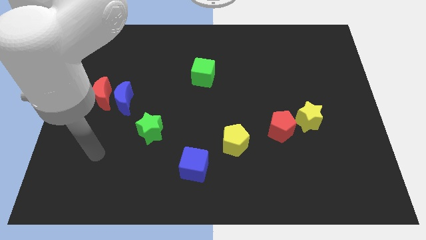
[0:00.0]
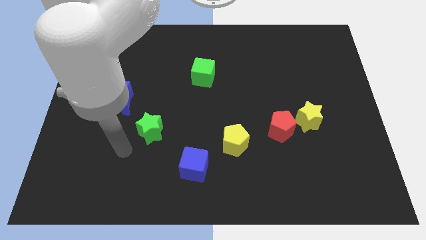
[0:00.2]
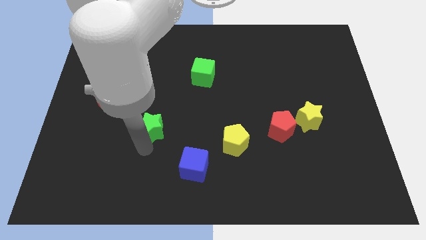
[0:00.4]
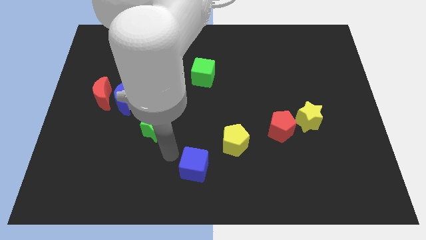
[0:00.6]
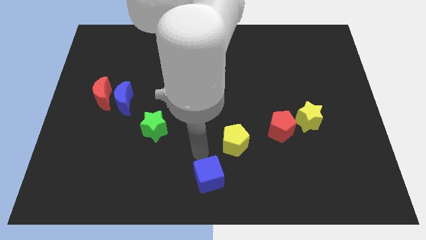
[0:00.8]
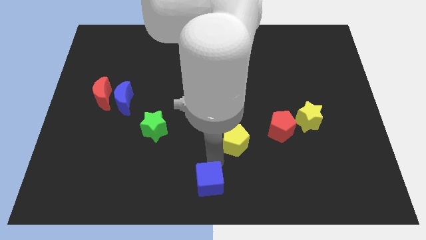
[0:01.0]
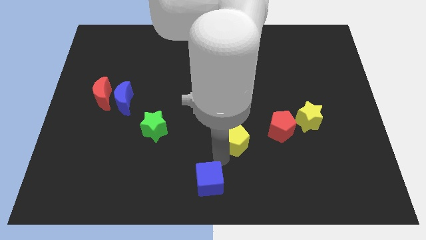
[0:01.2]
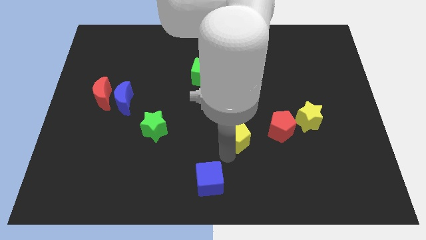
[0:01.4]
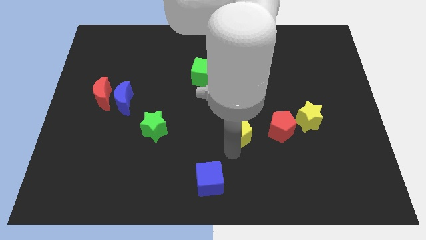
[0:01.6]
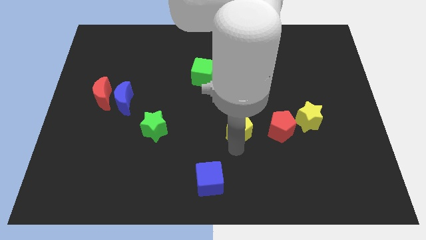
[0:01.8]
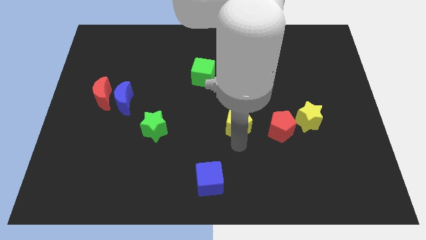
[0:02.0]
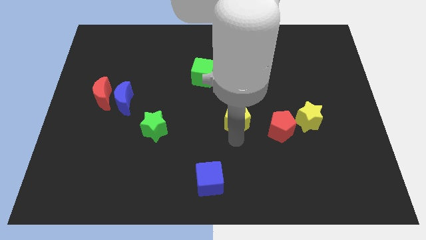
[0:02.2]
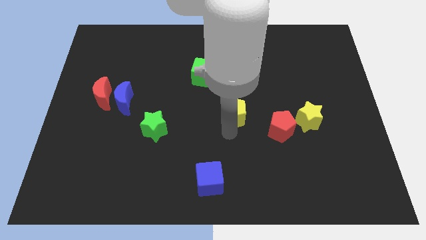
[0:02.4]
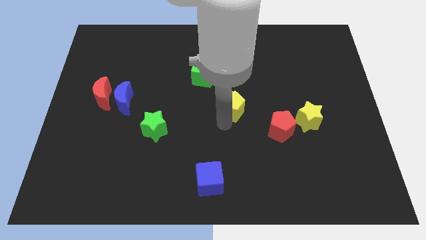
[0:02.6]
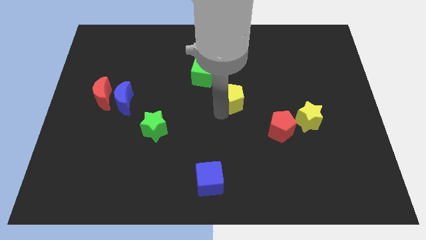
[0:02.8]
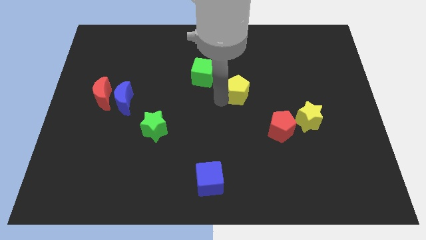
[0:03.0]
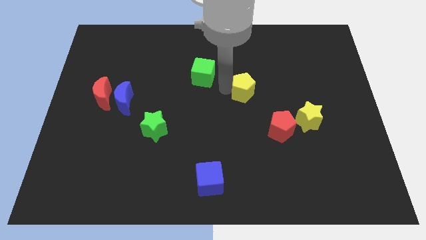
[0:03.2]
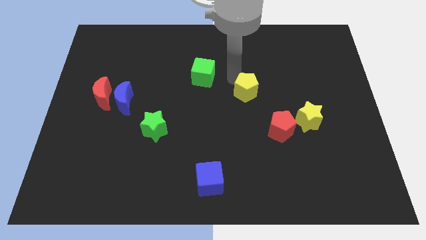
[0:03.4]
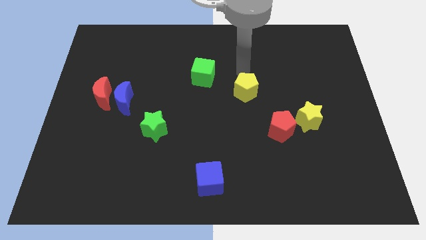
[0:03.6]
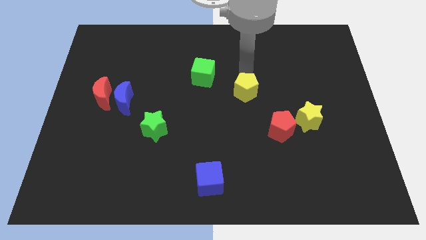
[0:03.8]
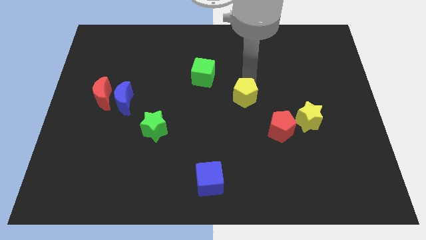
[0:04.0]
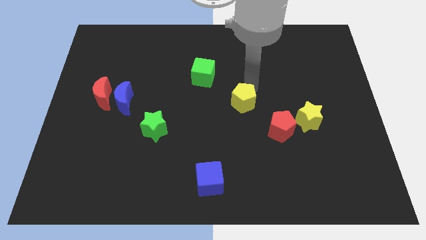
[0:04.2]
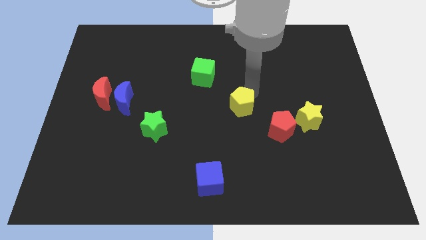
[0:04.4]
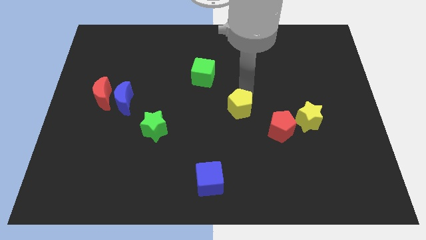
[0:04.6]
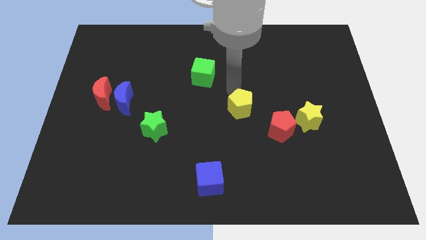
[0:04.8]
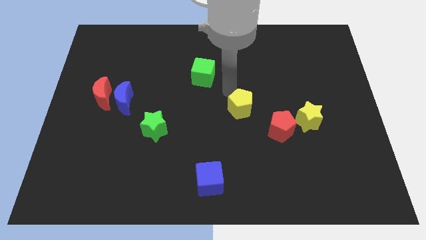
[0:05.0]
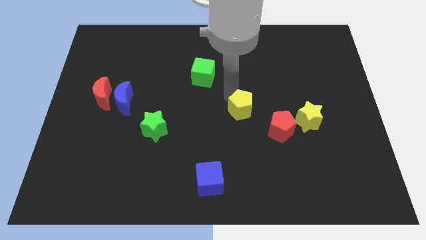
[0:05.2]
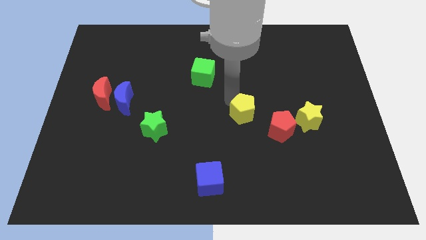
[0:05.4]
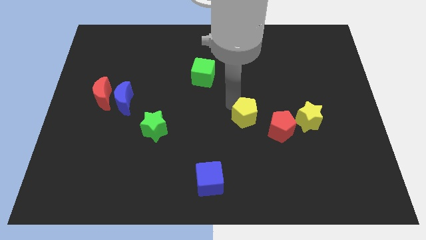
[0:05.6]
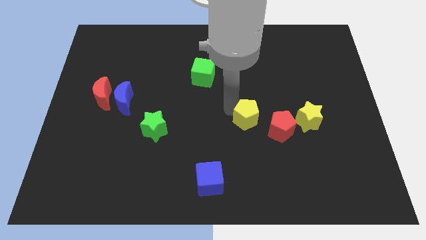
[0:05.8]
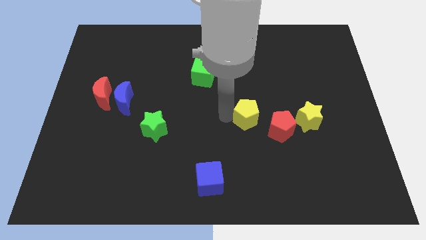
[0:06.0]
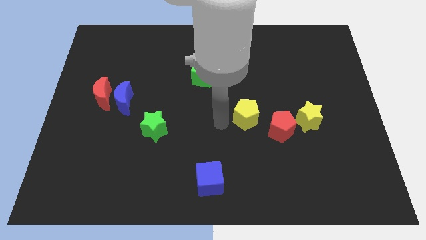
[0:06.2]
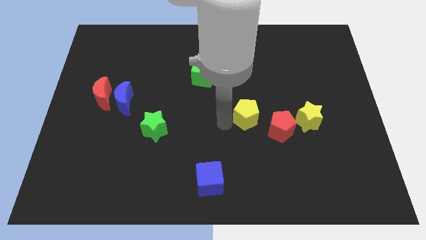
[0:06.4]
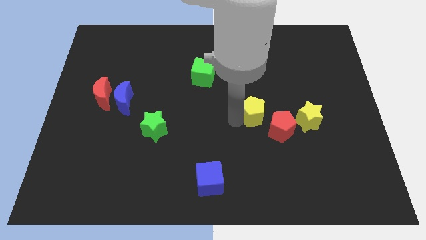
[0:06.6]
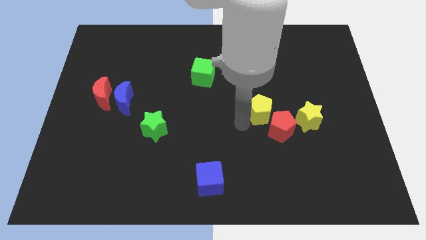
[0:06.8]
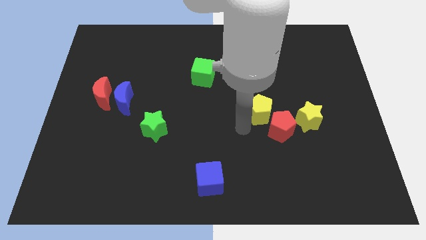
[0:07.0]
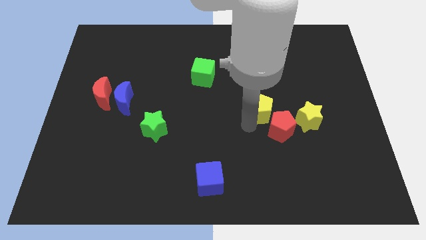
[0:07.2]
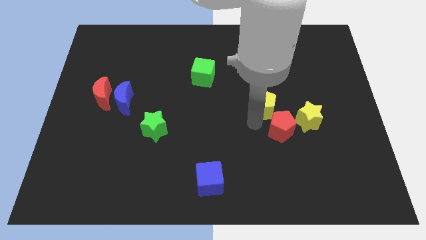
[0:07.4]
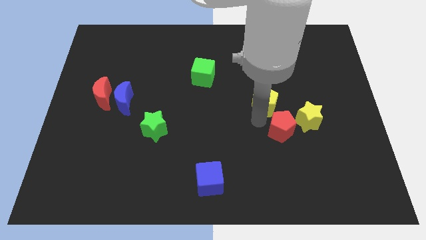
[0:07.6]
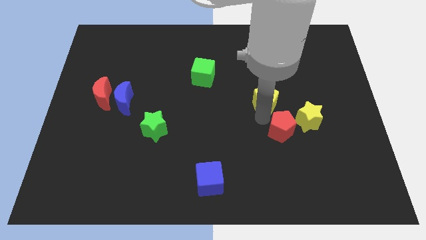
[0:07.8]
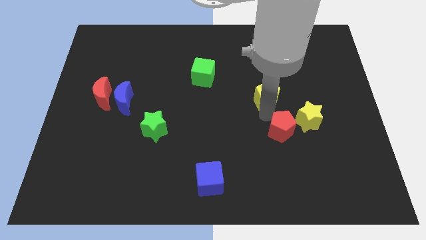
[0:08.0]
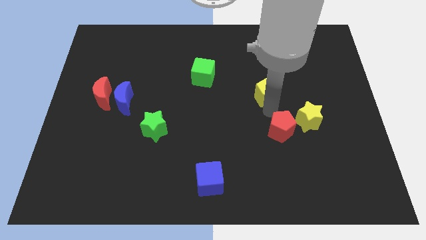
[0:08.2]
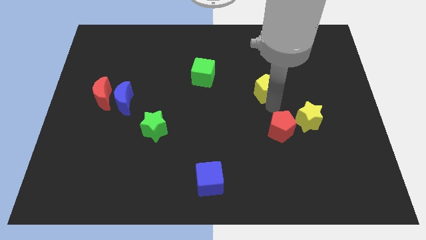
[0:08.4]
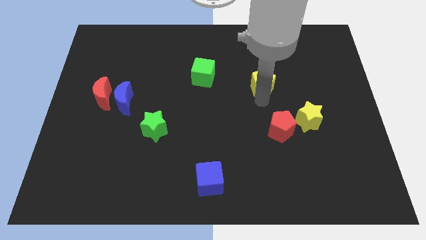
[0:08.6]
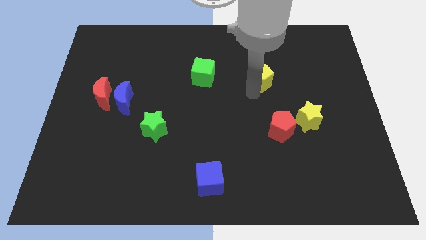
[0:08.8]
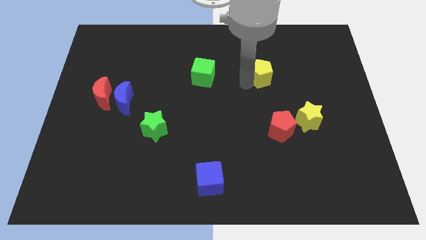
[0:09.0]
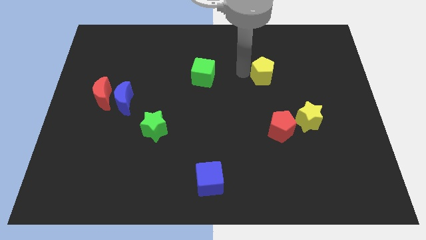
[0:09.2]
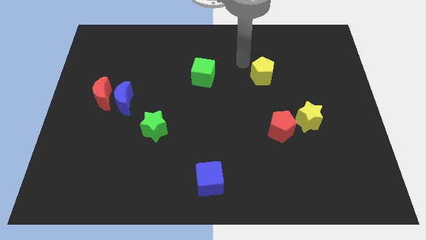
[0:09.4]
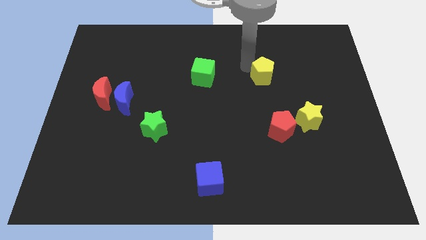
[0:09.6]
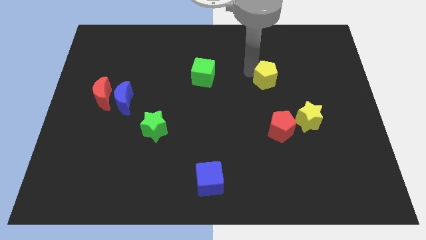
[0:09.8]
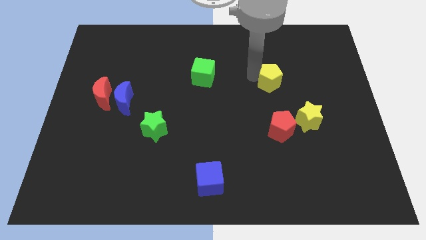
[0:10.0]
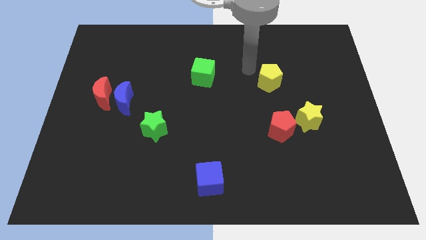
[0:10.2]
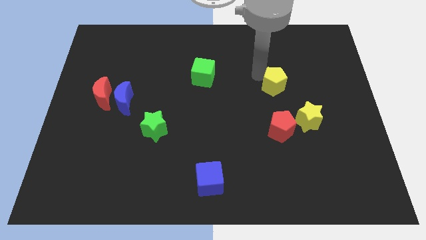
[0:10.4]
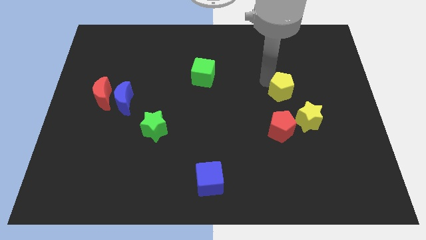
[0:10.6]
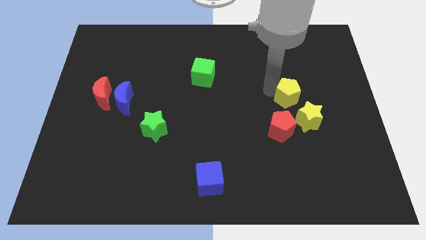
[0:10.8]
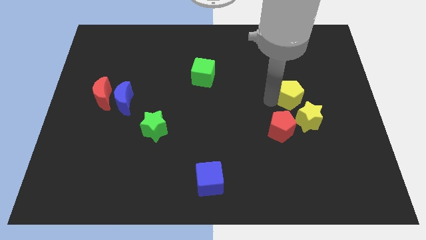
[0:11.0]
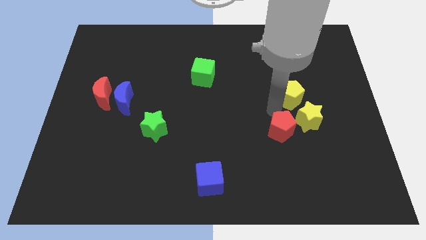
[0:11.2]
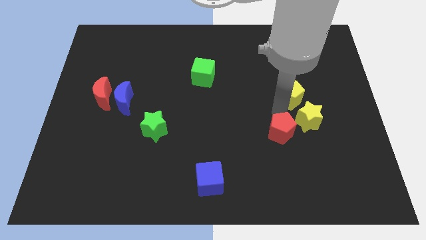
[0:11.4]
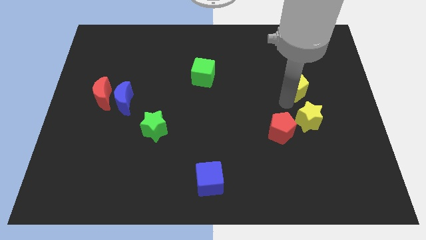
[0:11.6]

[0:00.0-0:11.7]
move the yellow pentagon up and to the right

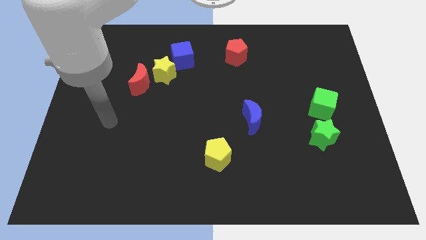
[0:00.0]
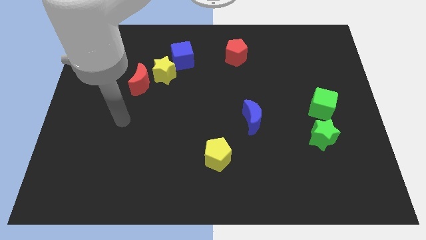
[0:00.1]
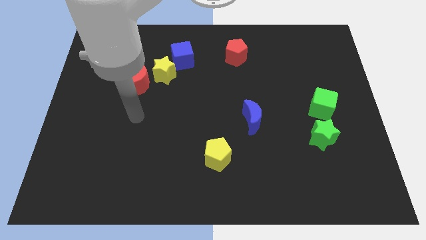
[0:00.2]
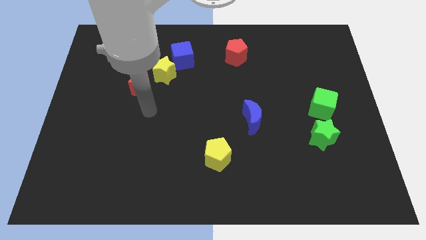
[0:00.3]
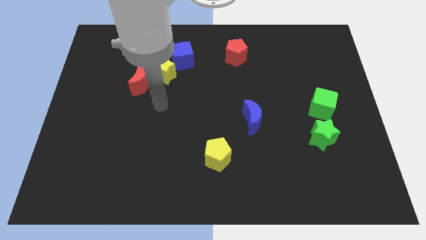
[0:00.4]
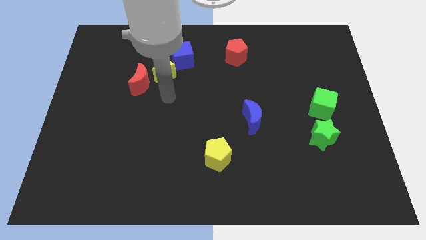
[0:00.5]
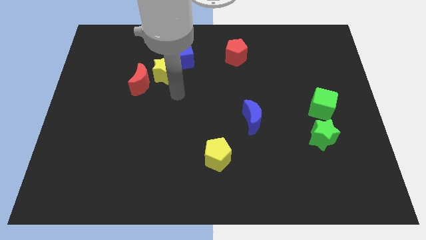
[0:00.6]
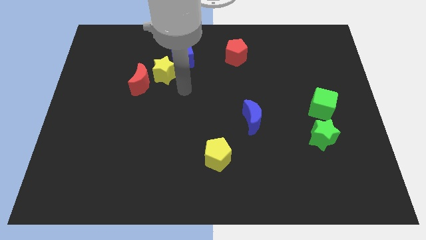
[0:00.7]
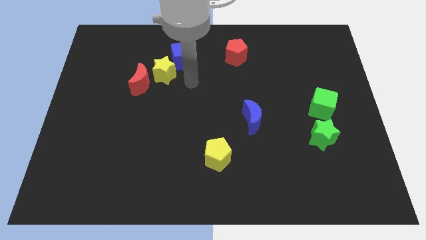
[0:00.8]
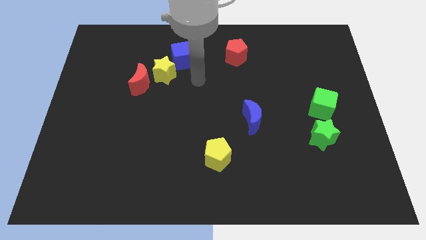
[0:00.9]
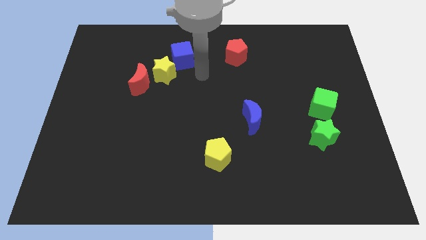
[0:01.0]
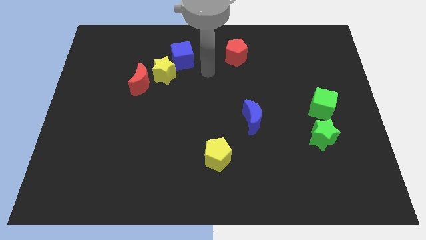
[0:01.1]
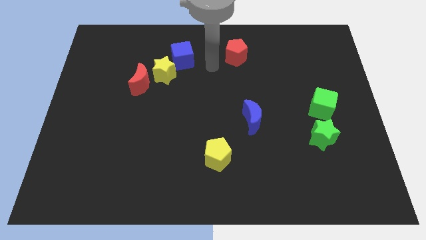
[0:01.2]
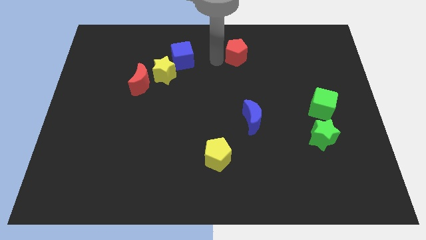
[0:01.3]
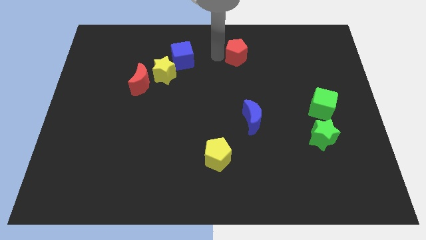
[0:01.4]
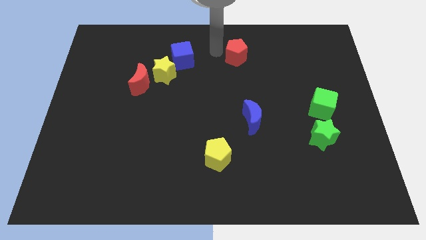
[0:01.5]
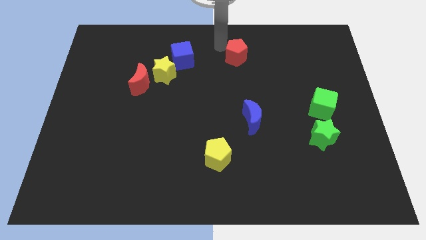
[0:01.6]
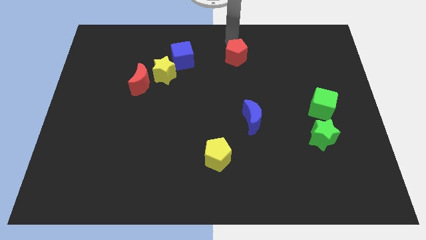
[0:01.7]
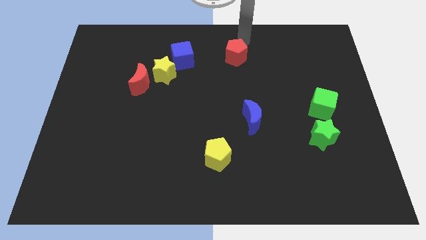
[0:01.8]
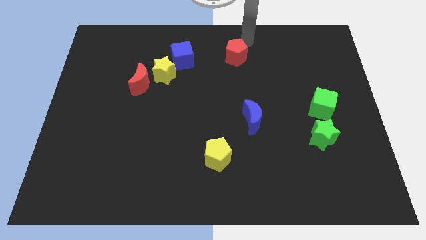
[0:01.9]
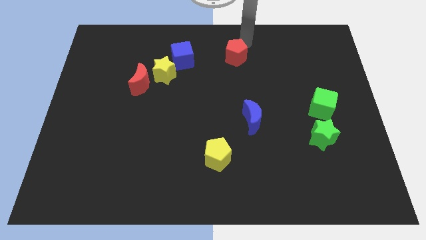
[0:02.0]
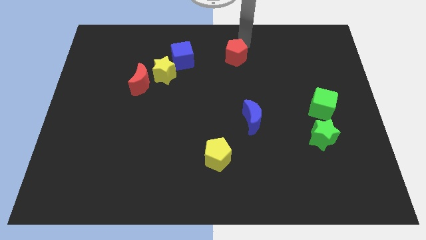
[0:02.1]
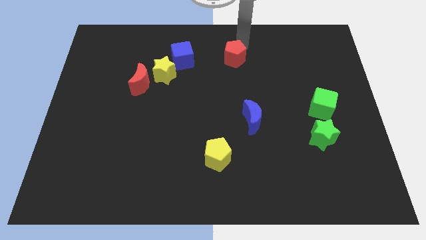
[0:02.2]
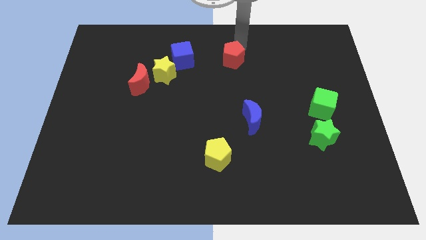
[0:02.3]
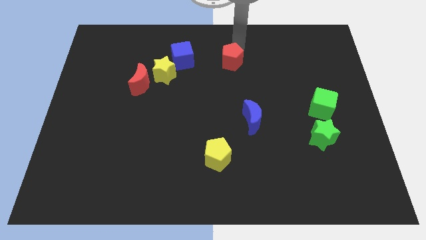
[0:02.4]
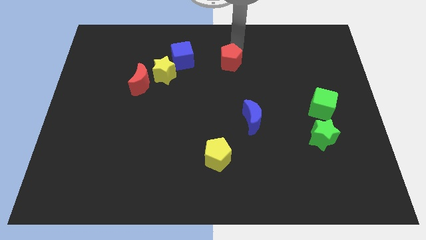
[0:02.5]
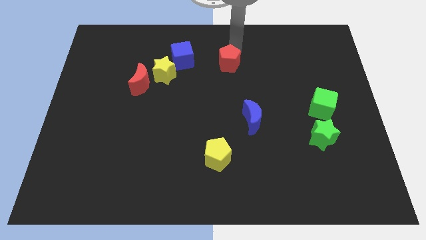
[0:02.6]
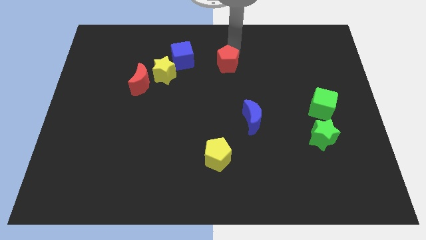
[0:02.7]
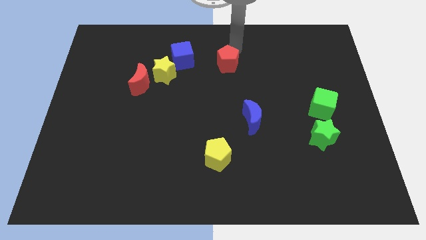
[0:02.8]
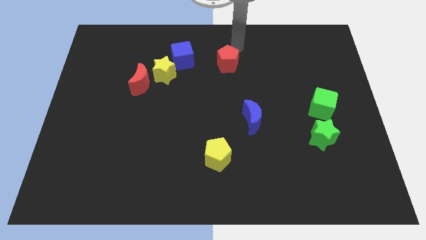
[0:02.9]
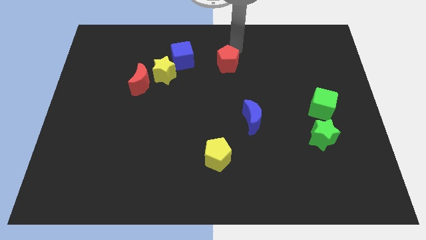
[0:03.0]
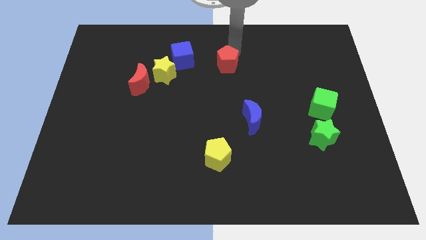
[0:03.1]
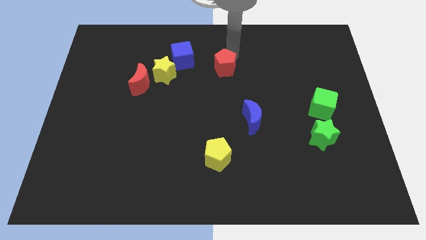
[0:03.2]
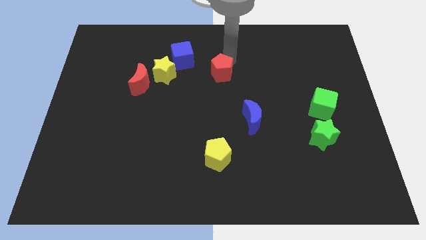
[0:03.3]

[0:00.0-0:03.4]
slightly push the red pentagon down and left
